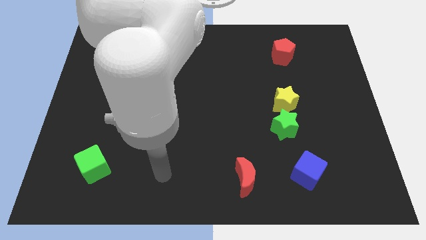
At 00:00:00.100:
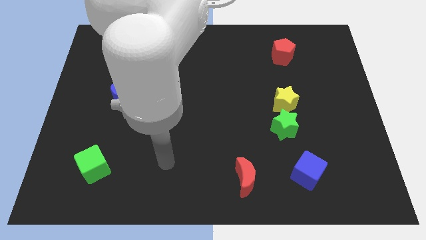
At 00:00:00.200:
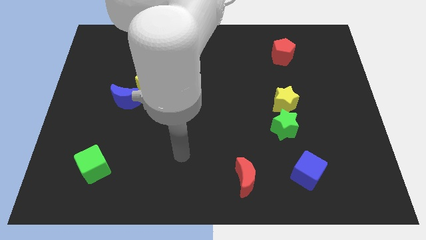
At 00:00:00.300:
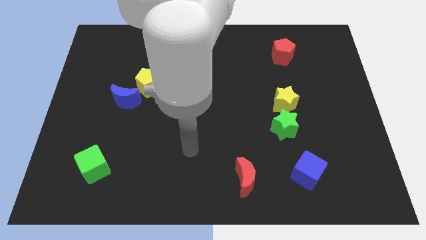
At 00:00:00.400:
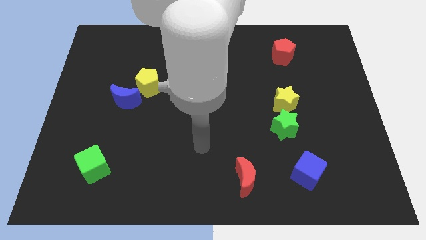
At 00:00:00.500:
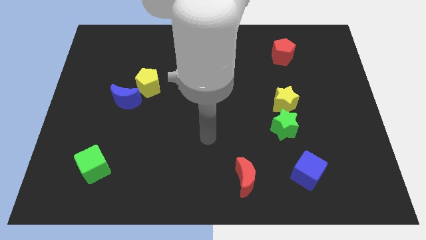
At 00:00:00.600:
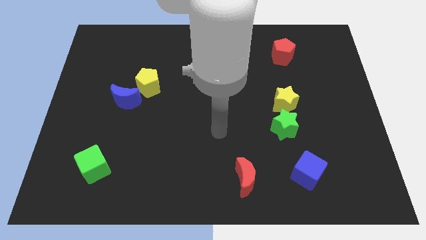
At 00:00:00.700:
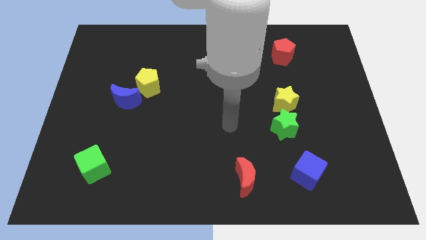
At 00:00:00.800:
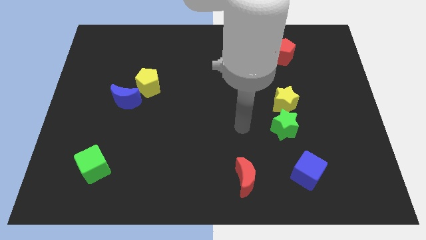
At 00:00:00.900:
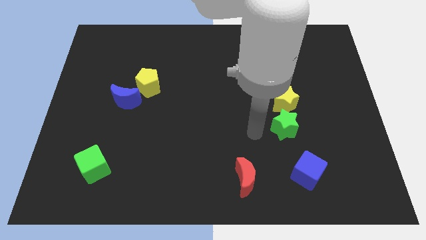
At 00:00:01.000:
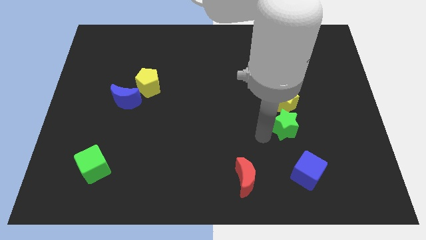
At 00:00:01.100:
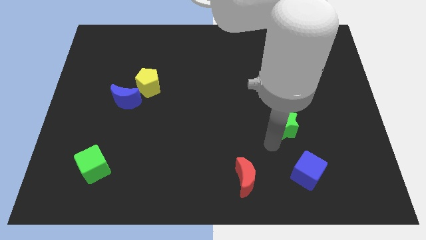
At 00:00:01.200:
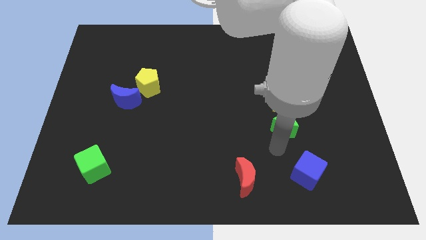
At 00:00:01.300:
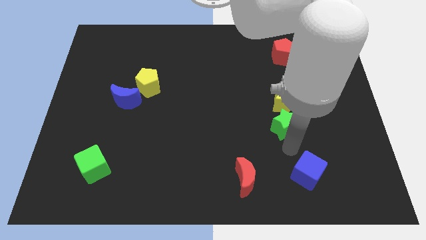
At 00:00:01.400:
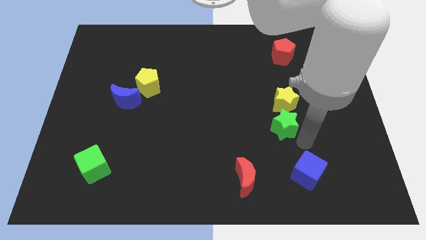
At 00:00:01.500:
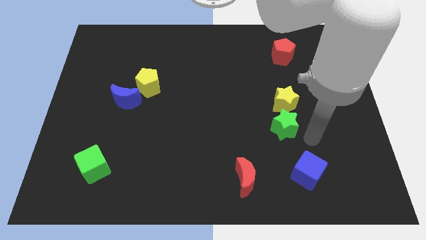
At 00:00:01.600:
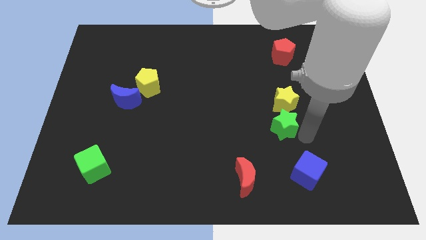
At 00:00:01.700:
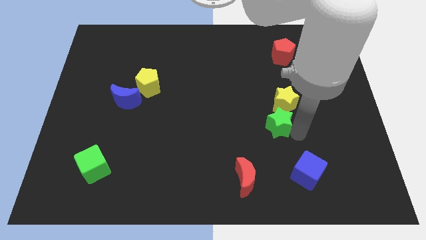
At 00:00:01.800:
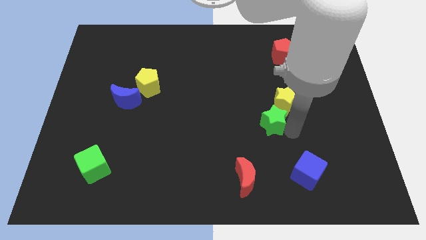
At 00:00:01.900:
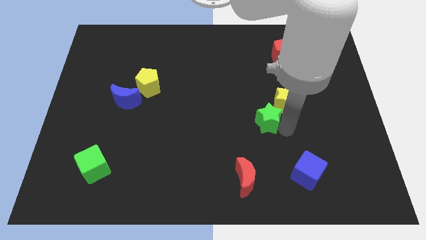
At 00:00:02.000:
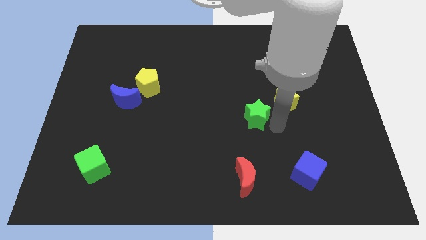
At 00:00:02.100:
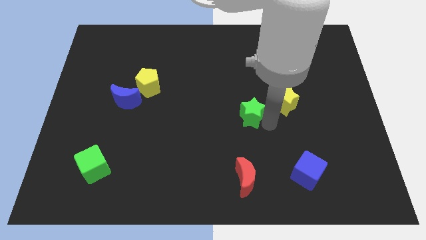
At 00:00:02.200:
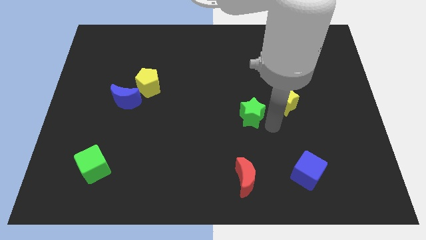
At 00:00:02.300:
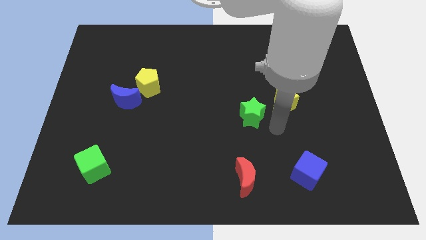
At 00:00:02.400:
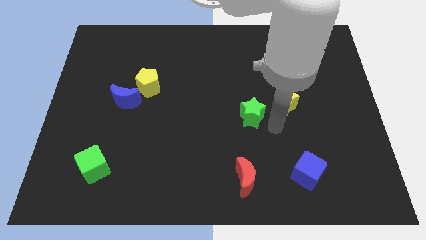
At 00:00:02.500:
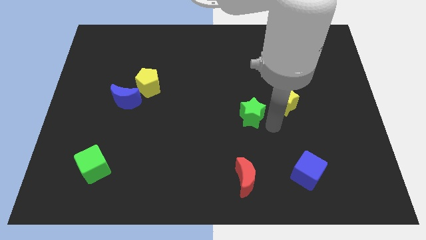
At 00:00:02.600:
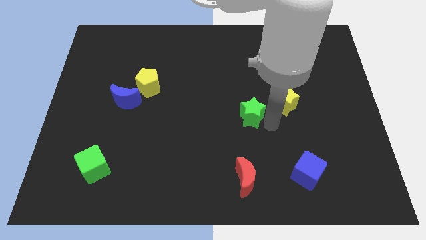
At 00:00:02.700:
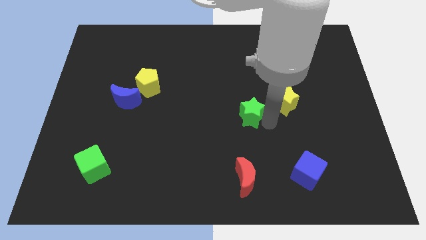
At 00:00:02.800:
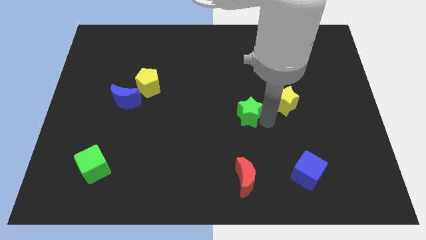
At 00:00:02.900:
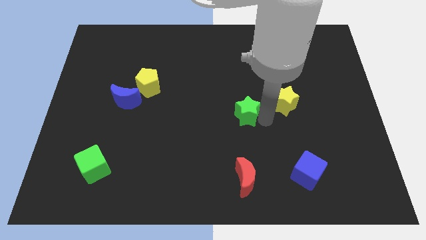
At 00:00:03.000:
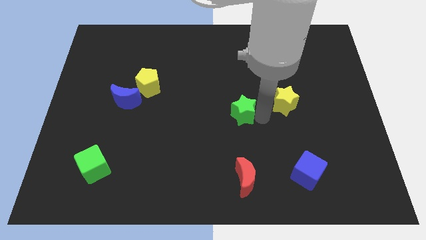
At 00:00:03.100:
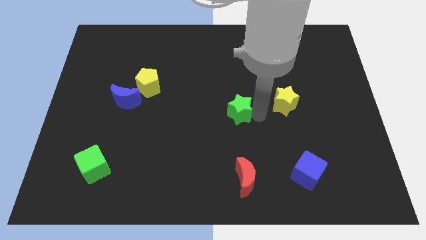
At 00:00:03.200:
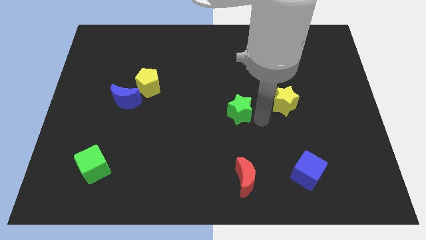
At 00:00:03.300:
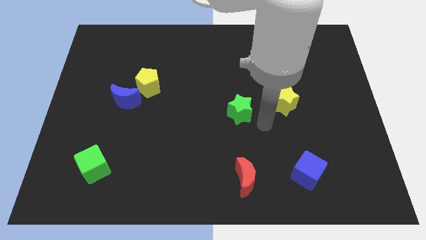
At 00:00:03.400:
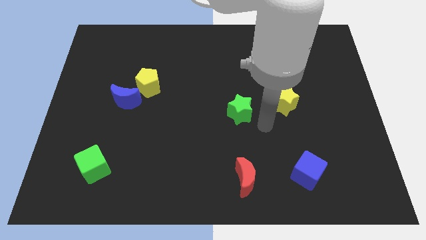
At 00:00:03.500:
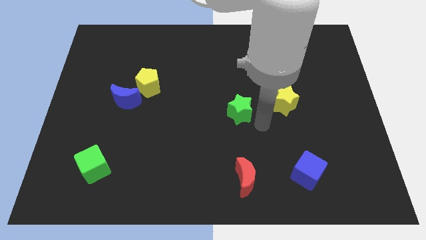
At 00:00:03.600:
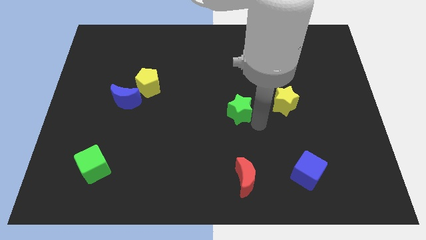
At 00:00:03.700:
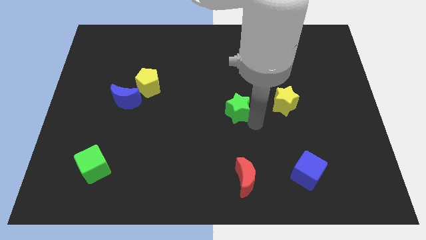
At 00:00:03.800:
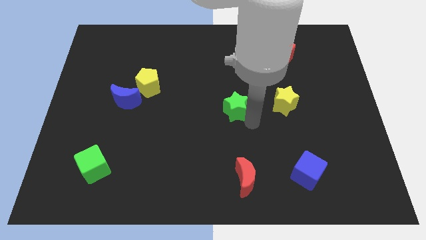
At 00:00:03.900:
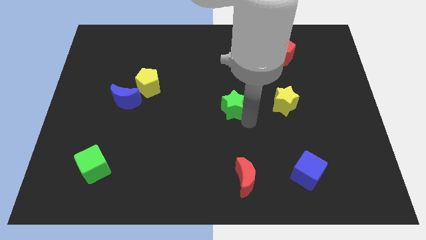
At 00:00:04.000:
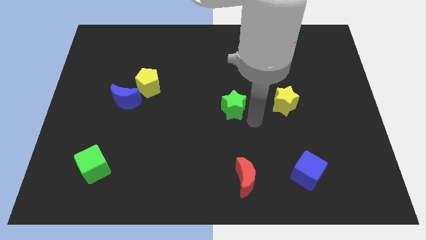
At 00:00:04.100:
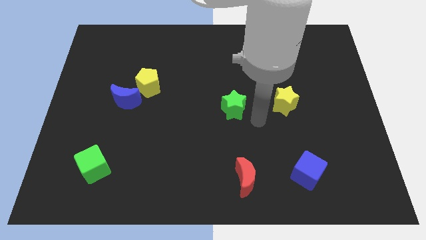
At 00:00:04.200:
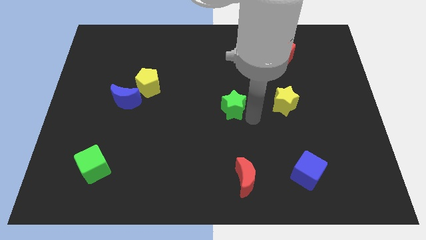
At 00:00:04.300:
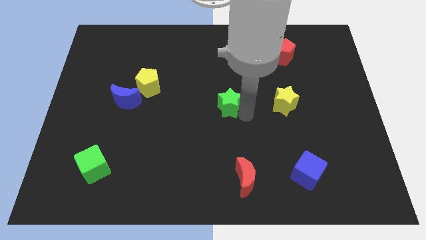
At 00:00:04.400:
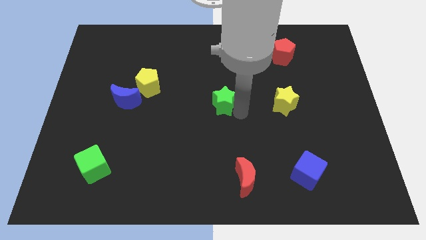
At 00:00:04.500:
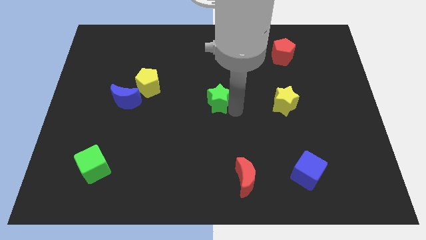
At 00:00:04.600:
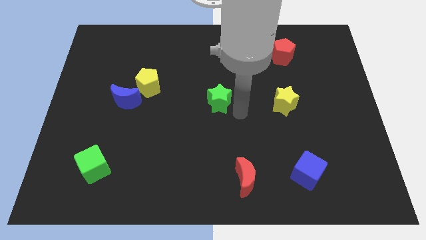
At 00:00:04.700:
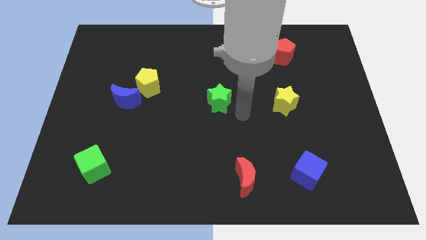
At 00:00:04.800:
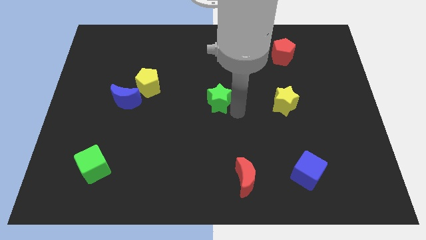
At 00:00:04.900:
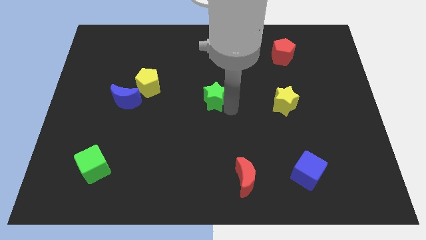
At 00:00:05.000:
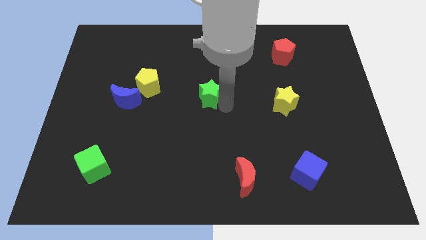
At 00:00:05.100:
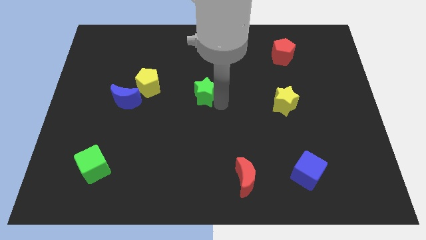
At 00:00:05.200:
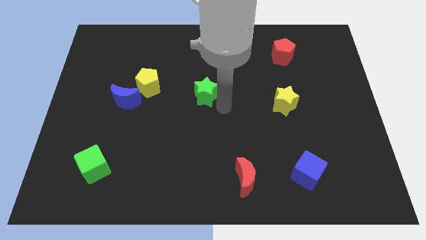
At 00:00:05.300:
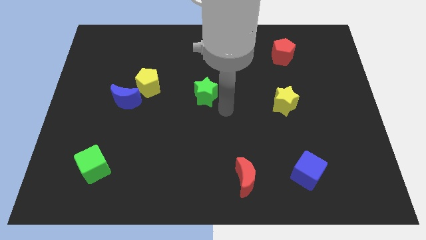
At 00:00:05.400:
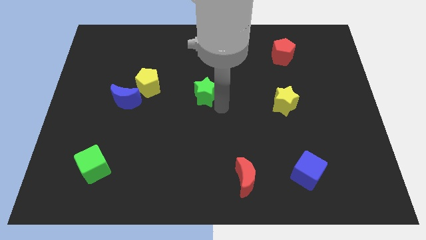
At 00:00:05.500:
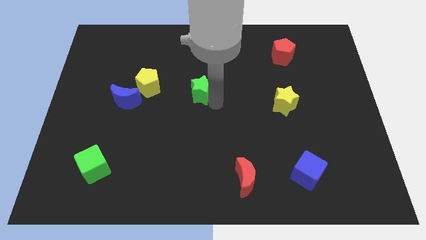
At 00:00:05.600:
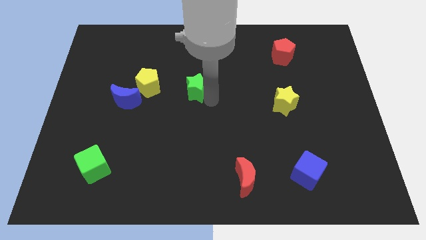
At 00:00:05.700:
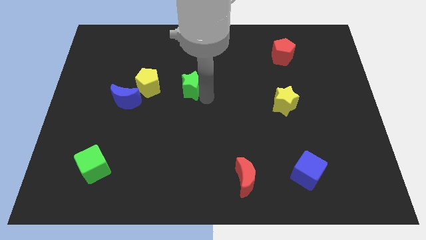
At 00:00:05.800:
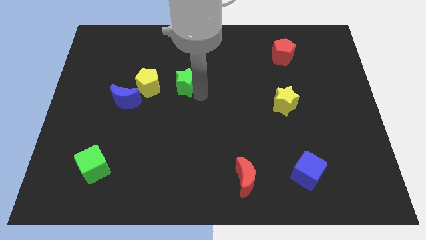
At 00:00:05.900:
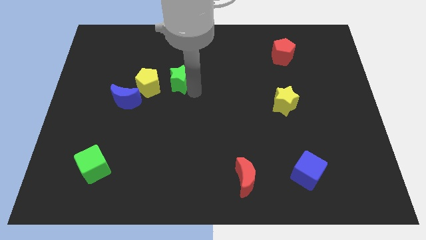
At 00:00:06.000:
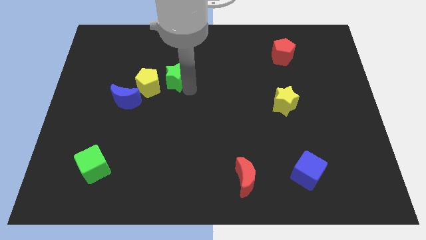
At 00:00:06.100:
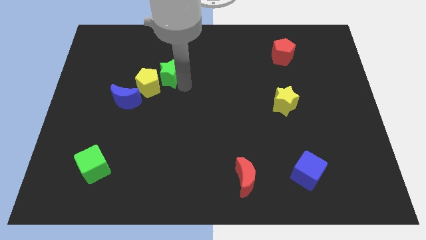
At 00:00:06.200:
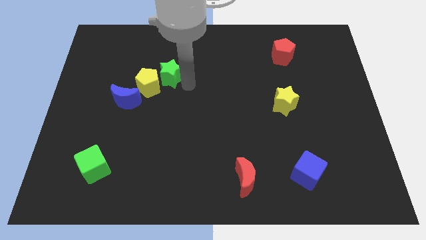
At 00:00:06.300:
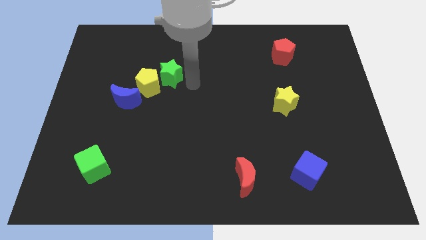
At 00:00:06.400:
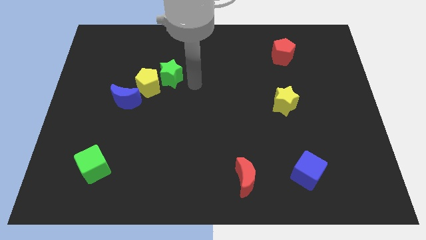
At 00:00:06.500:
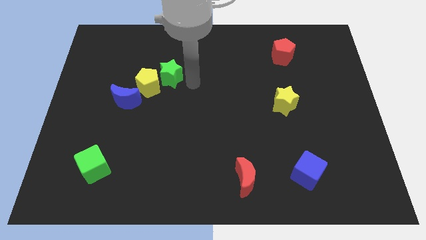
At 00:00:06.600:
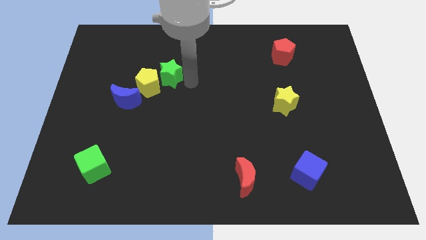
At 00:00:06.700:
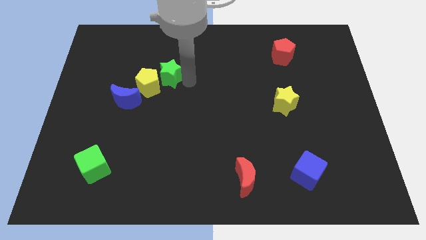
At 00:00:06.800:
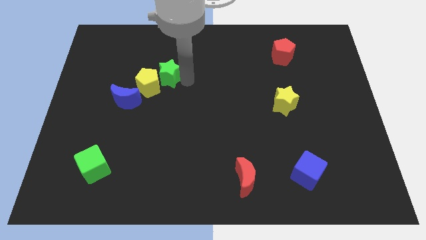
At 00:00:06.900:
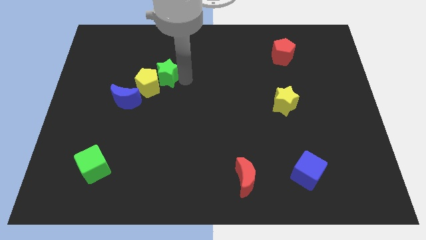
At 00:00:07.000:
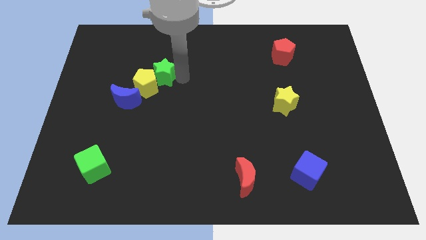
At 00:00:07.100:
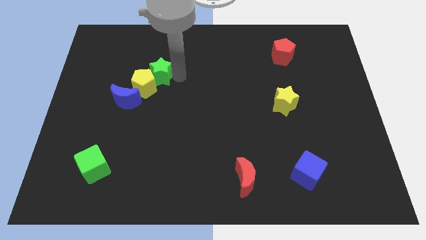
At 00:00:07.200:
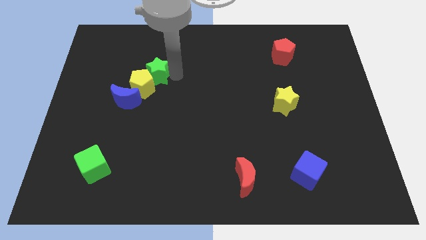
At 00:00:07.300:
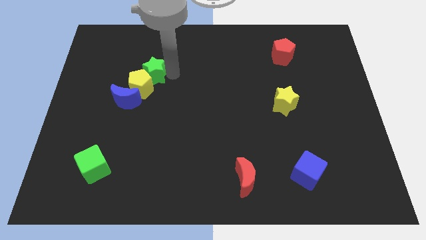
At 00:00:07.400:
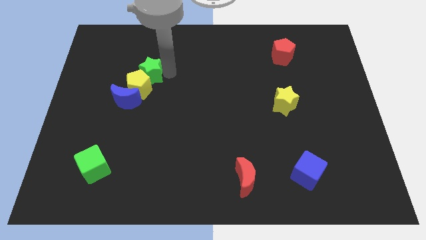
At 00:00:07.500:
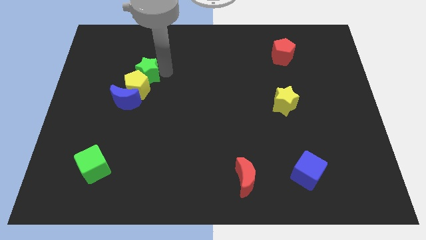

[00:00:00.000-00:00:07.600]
push the green star diagonally up and to the left of the yellow pentagon
